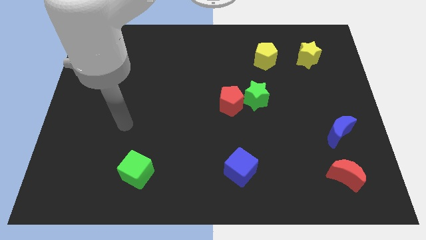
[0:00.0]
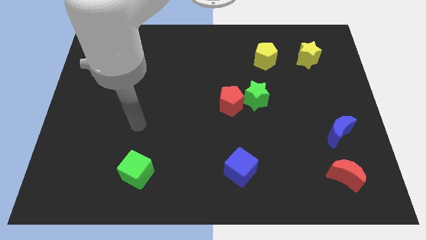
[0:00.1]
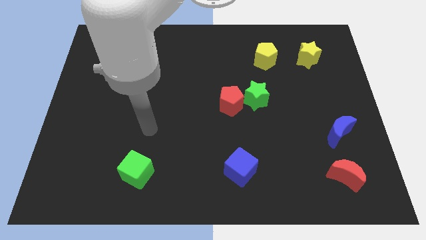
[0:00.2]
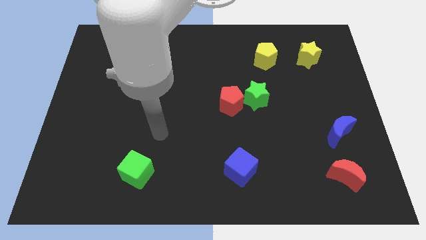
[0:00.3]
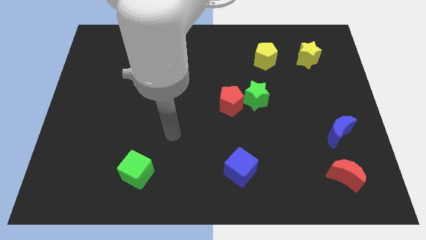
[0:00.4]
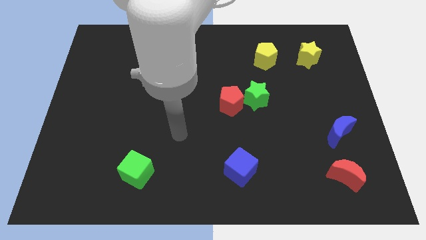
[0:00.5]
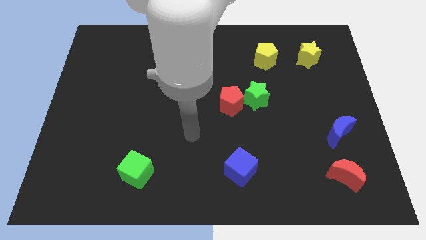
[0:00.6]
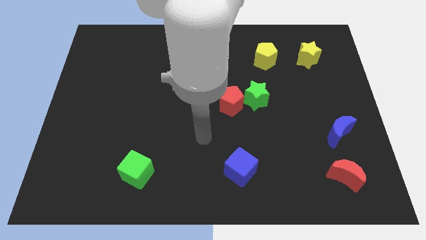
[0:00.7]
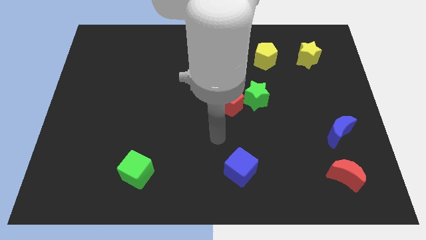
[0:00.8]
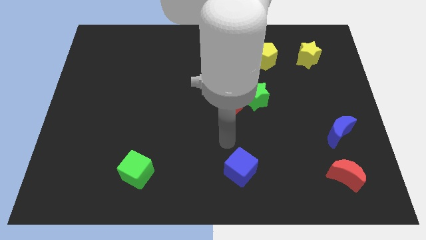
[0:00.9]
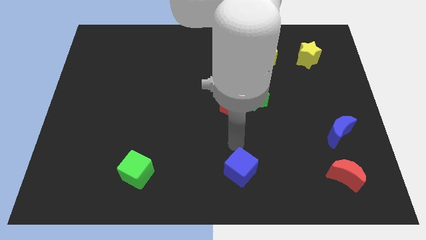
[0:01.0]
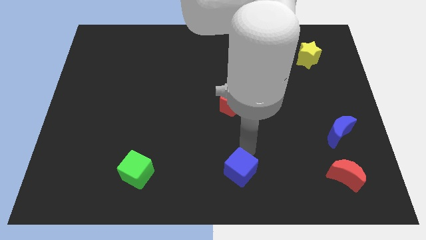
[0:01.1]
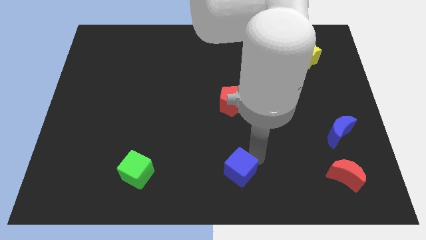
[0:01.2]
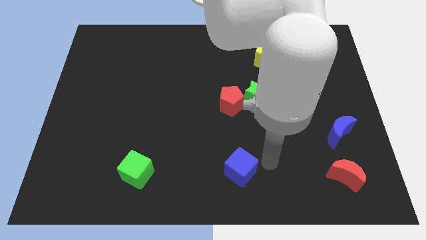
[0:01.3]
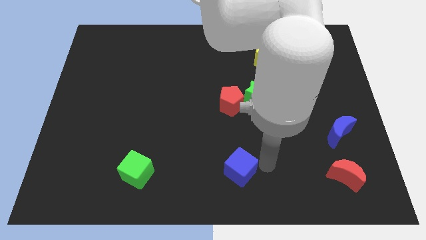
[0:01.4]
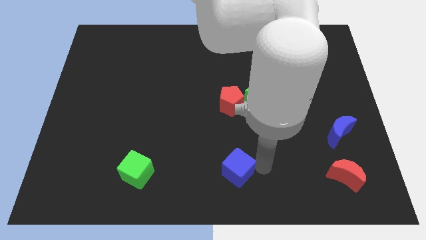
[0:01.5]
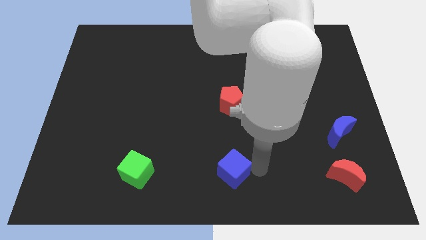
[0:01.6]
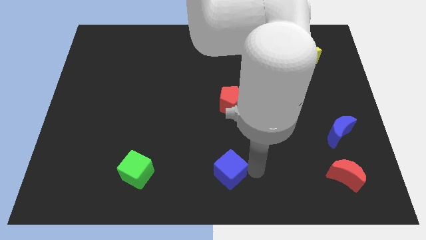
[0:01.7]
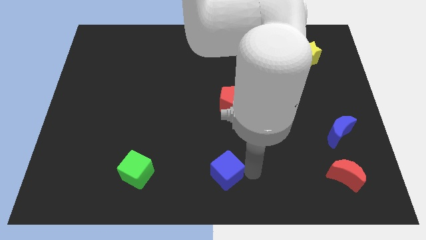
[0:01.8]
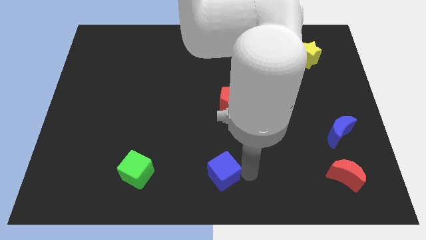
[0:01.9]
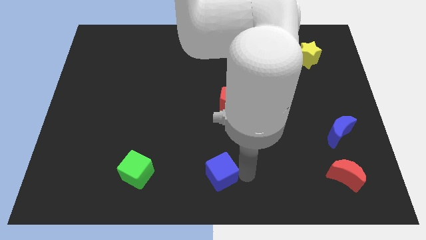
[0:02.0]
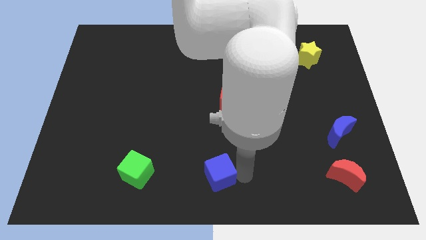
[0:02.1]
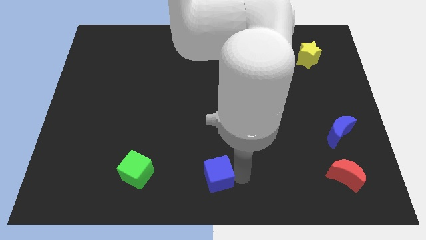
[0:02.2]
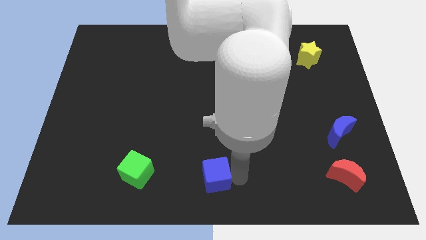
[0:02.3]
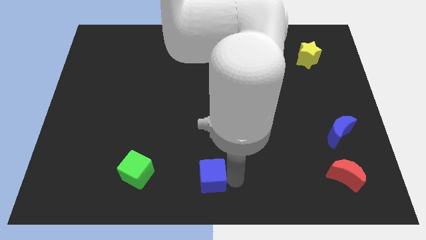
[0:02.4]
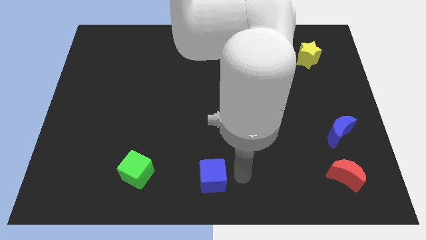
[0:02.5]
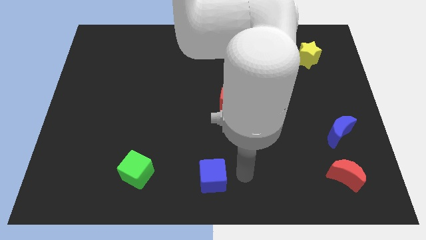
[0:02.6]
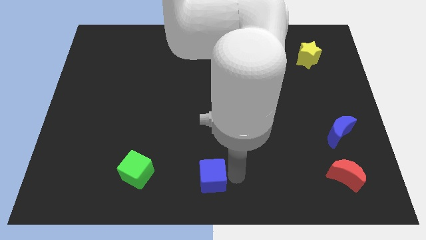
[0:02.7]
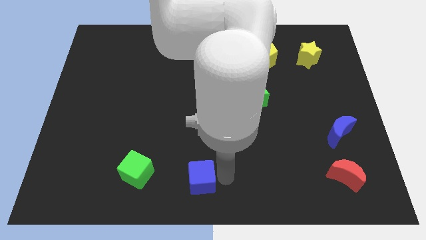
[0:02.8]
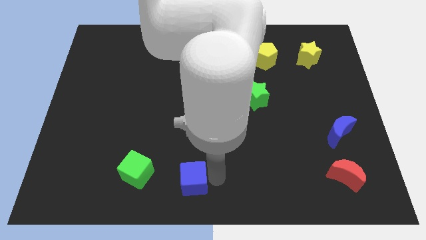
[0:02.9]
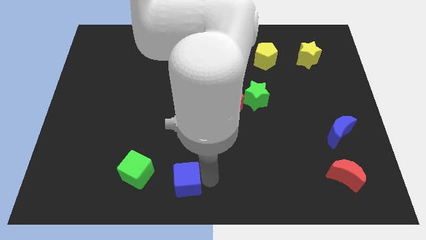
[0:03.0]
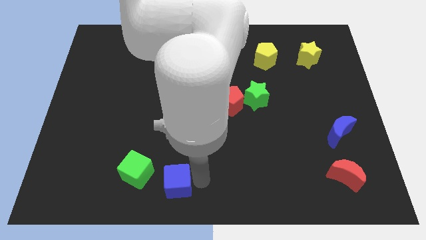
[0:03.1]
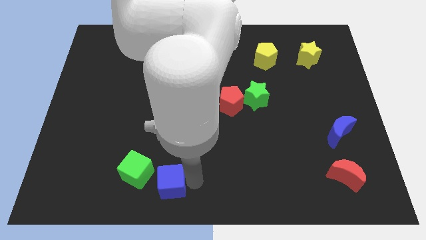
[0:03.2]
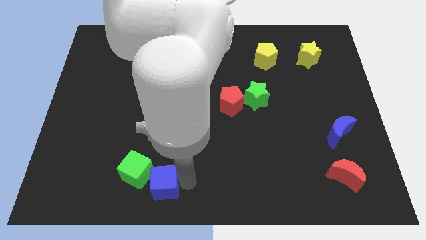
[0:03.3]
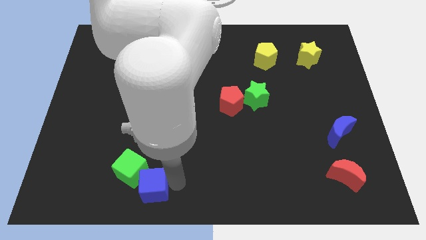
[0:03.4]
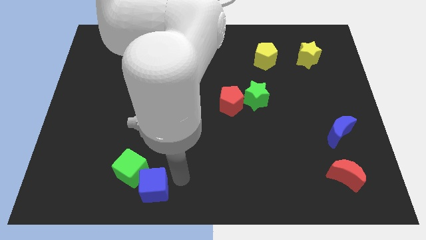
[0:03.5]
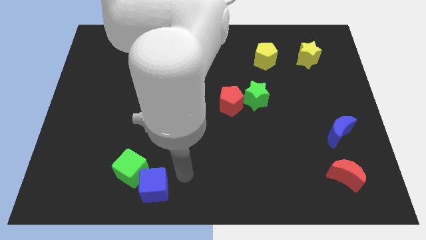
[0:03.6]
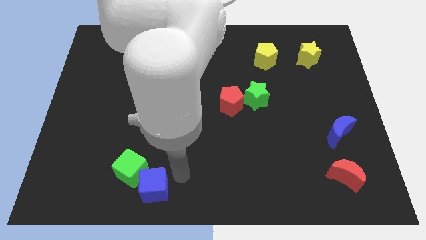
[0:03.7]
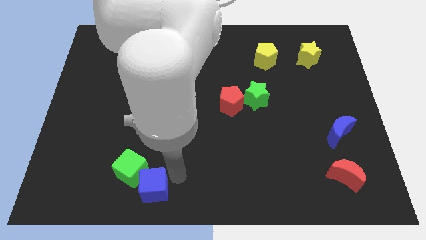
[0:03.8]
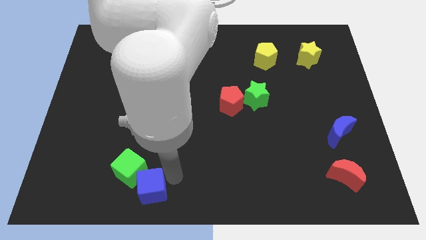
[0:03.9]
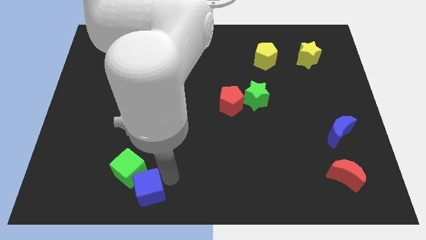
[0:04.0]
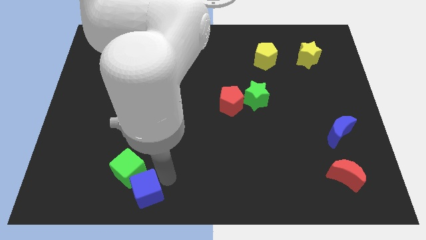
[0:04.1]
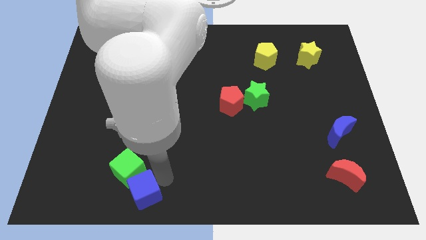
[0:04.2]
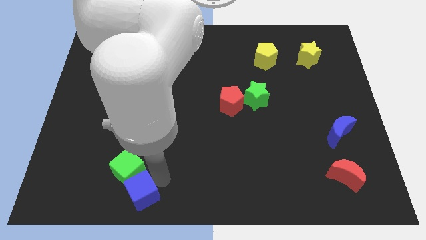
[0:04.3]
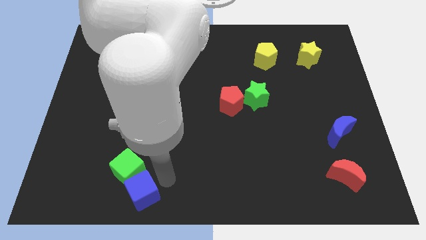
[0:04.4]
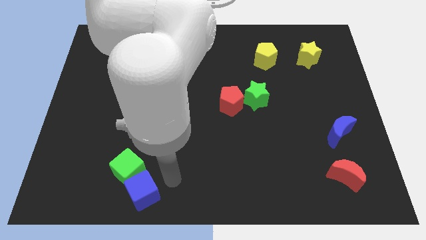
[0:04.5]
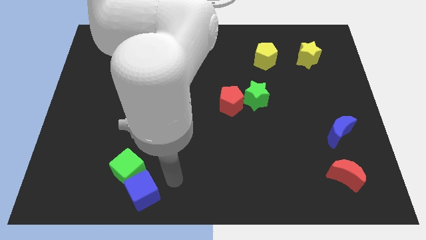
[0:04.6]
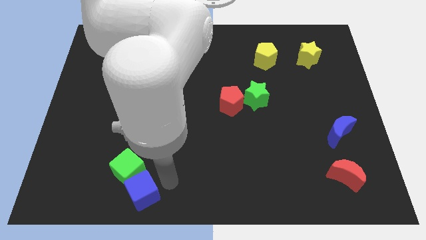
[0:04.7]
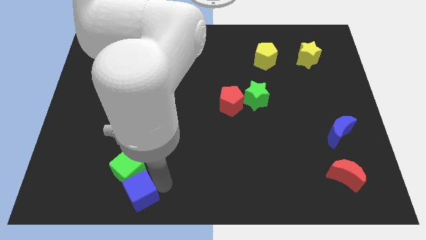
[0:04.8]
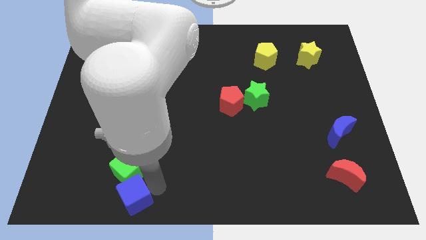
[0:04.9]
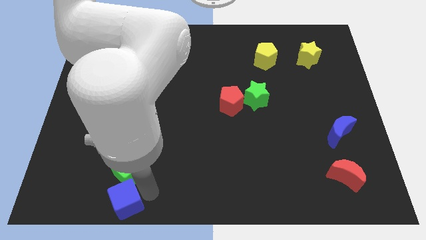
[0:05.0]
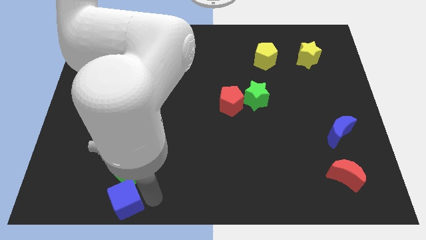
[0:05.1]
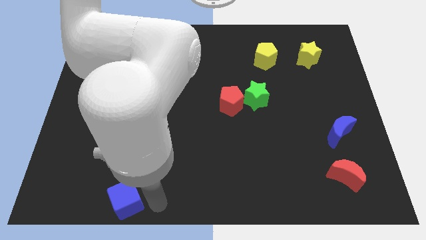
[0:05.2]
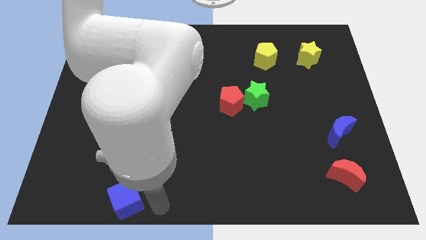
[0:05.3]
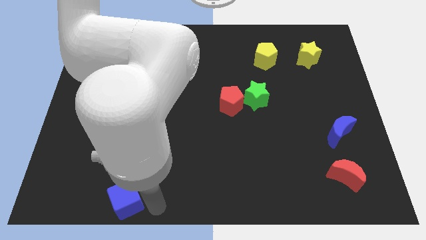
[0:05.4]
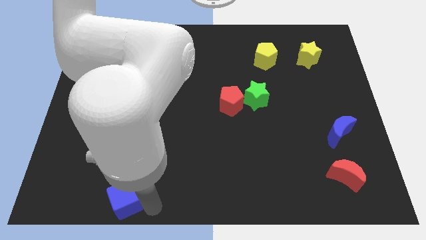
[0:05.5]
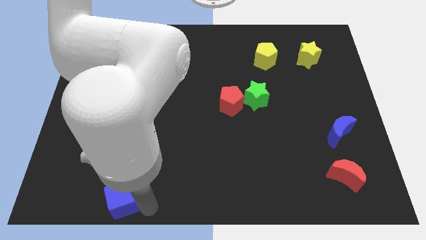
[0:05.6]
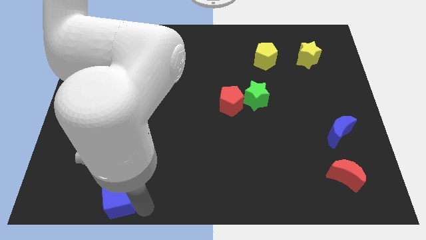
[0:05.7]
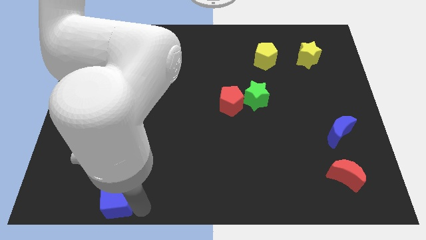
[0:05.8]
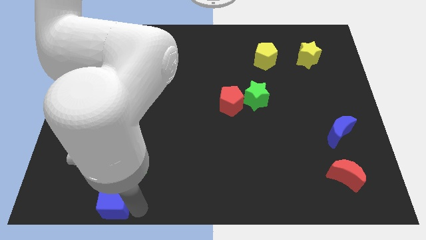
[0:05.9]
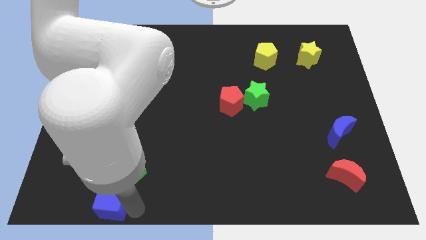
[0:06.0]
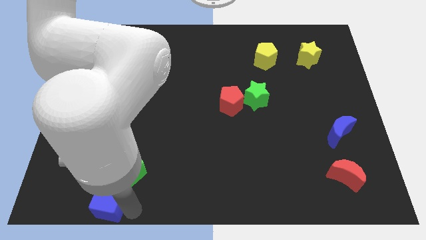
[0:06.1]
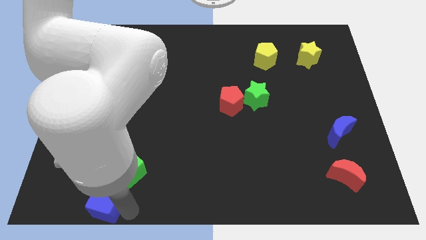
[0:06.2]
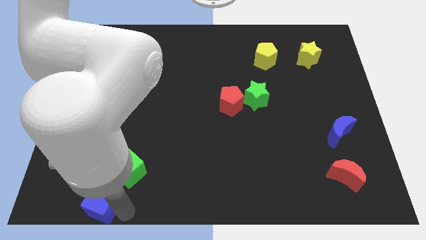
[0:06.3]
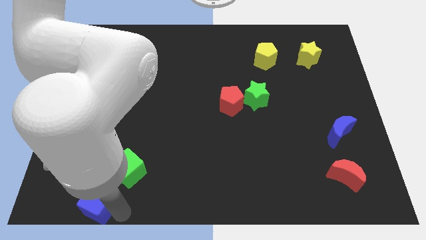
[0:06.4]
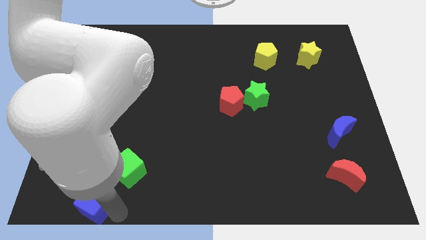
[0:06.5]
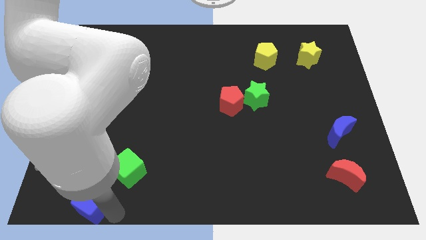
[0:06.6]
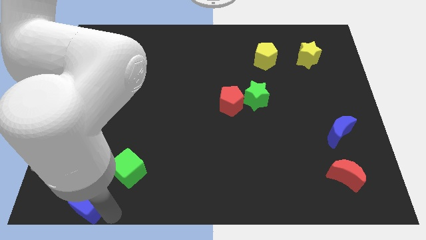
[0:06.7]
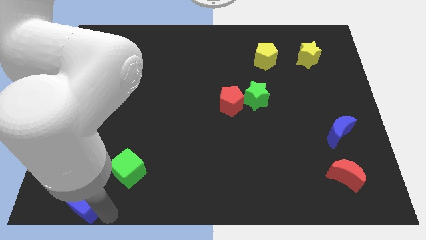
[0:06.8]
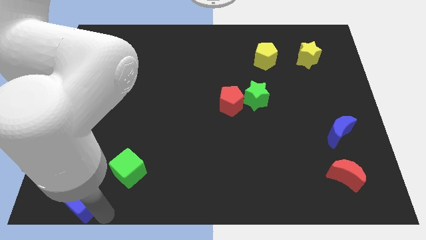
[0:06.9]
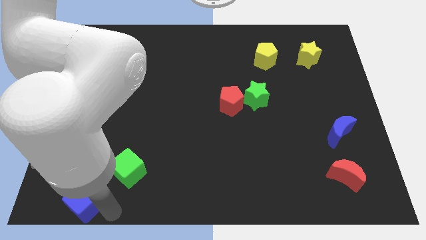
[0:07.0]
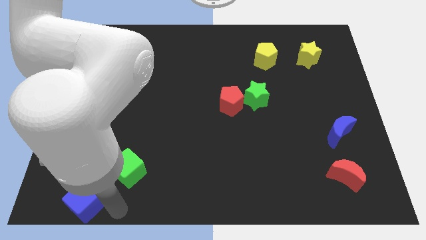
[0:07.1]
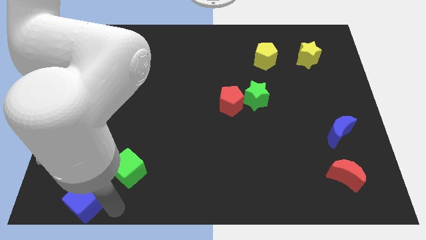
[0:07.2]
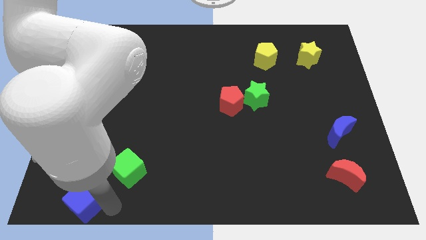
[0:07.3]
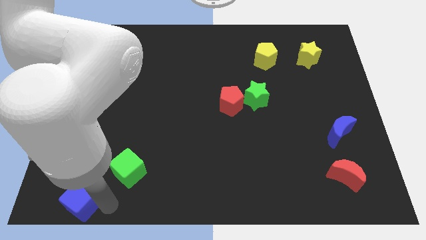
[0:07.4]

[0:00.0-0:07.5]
slide the blue cube to the bottom left corner
